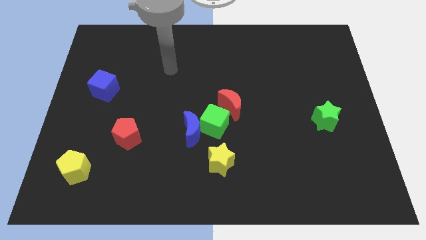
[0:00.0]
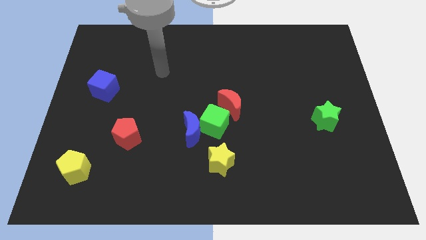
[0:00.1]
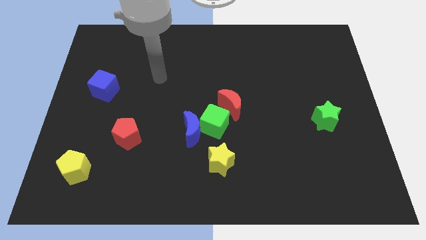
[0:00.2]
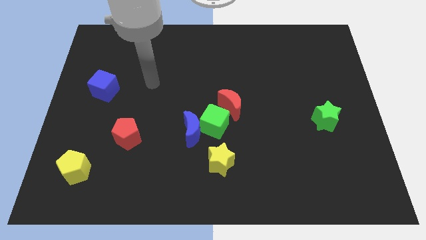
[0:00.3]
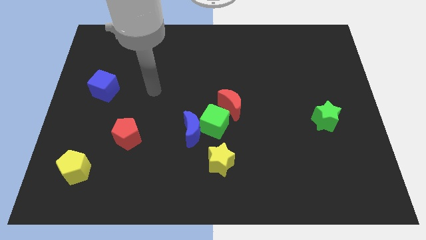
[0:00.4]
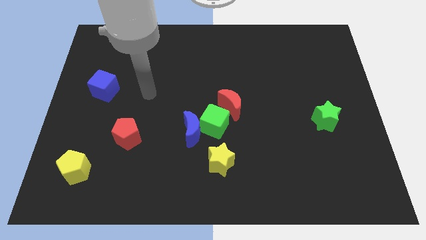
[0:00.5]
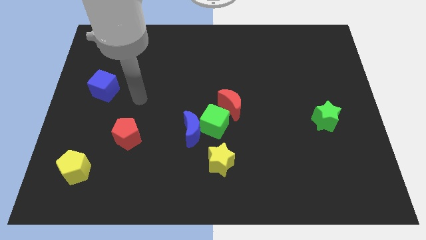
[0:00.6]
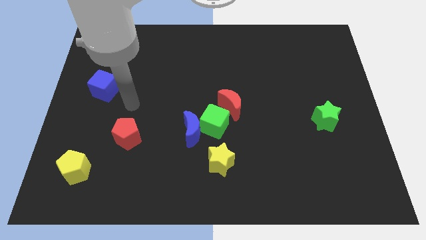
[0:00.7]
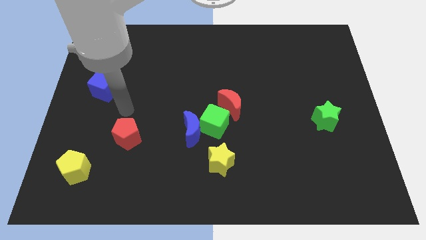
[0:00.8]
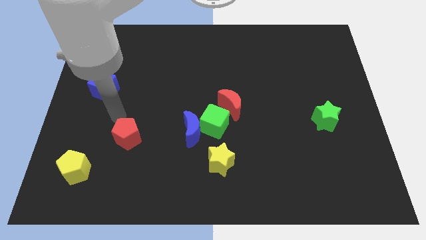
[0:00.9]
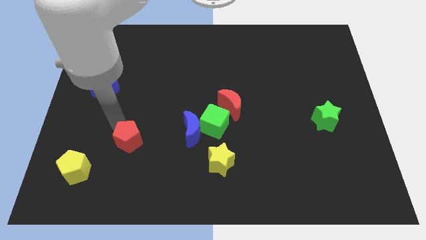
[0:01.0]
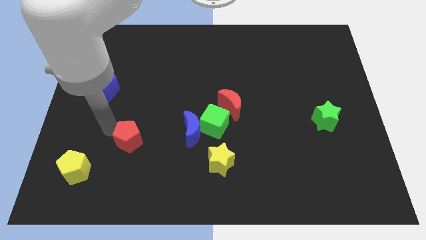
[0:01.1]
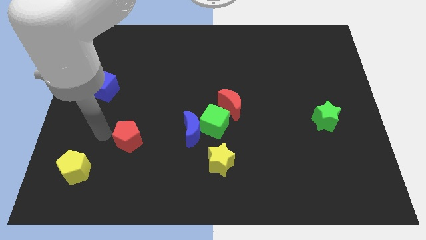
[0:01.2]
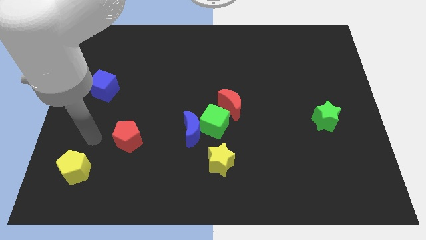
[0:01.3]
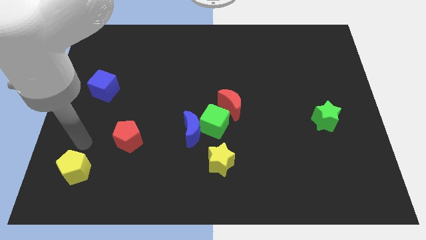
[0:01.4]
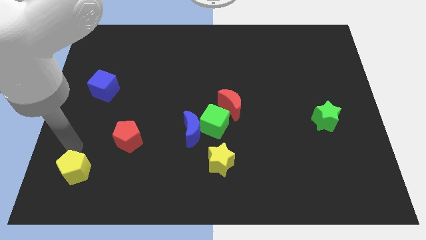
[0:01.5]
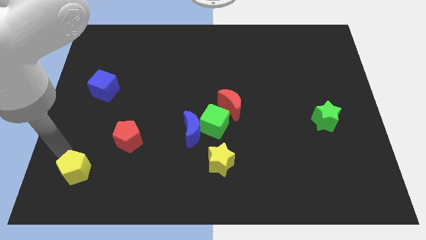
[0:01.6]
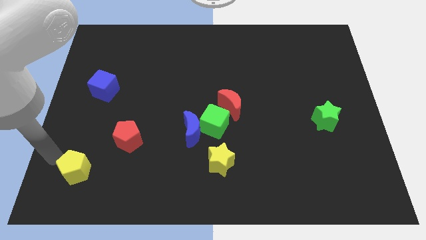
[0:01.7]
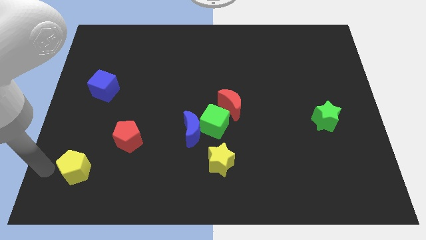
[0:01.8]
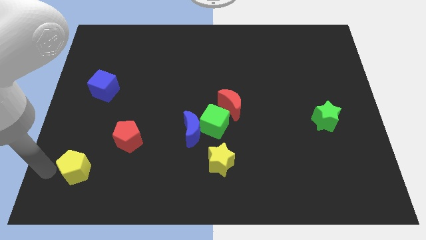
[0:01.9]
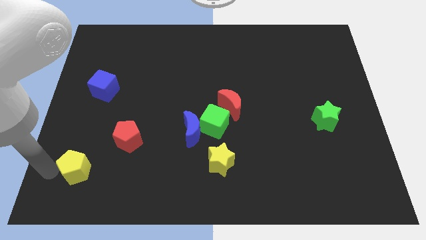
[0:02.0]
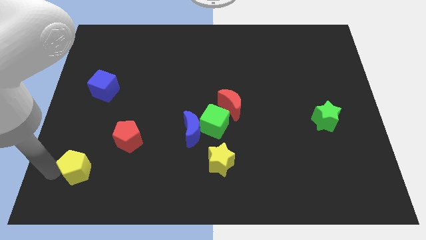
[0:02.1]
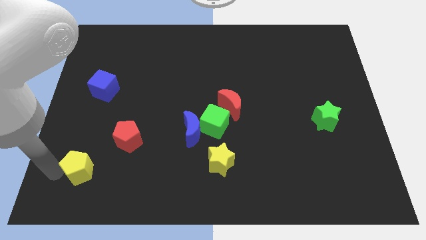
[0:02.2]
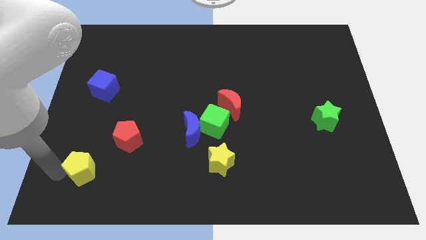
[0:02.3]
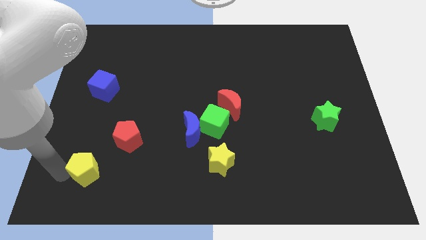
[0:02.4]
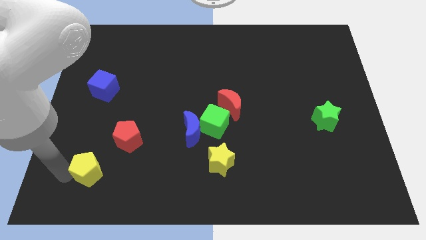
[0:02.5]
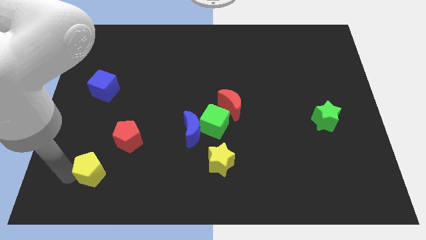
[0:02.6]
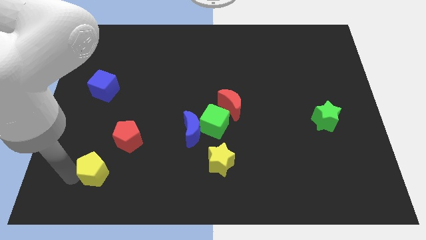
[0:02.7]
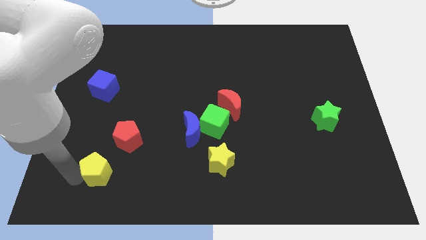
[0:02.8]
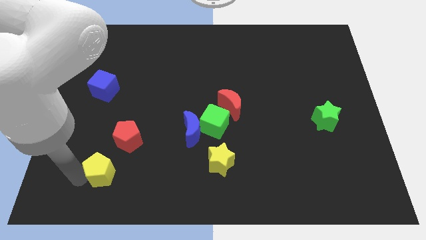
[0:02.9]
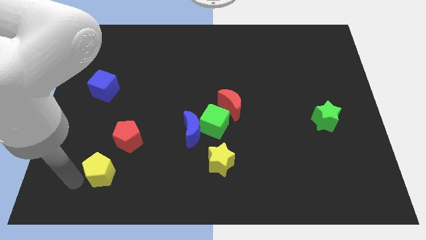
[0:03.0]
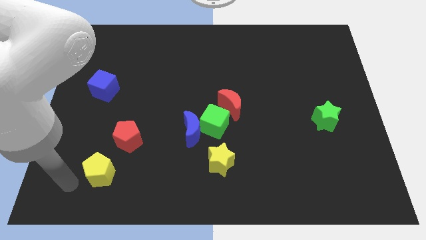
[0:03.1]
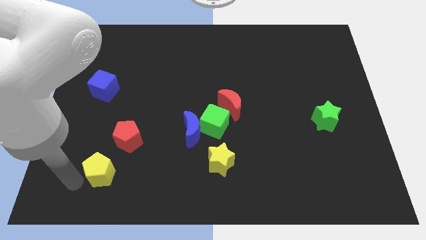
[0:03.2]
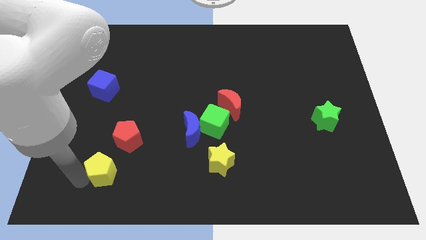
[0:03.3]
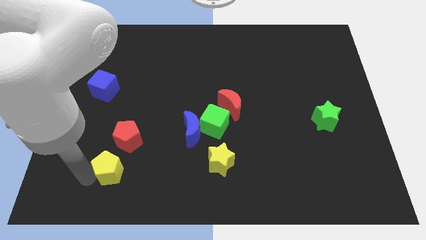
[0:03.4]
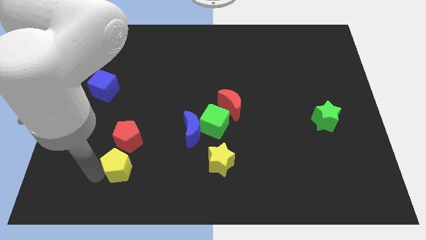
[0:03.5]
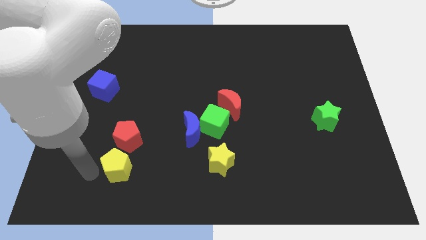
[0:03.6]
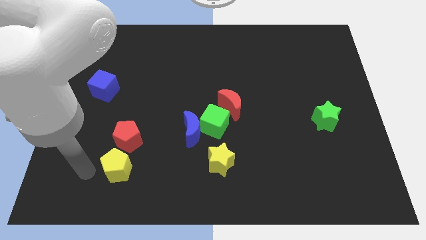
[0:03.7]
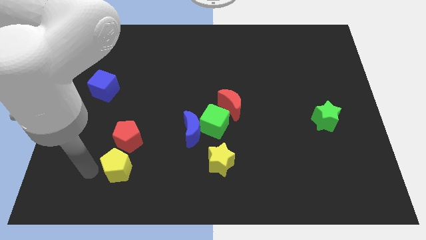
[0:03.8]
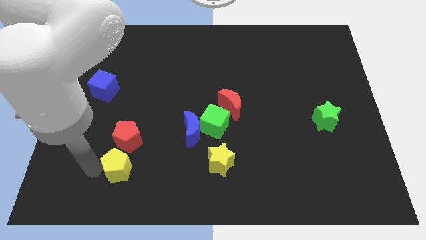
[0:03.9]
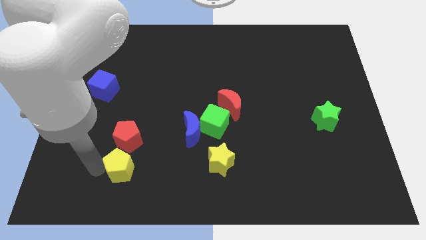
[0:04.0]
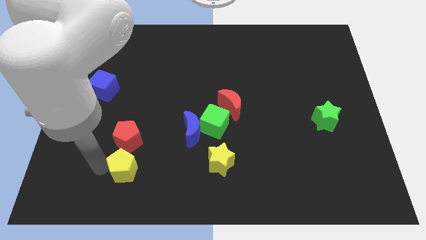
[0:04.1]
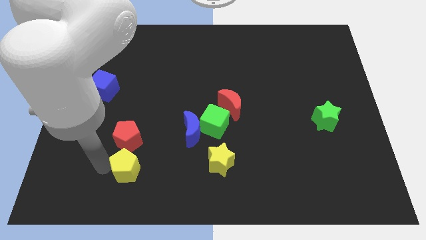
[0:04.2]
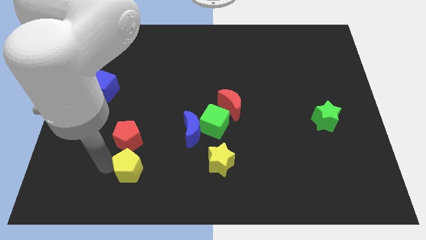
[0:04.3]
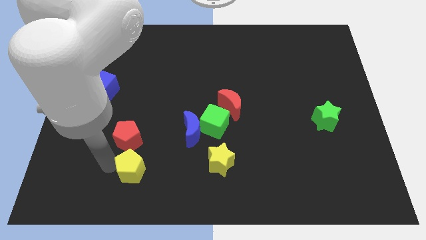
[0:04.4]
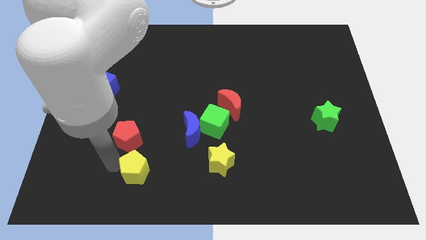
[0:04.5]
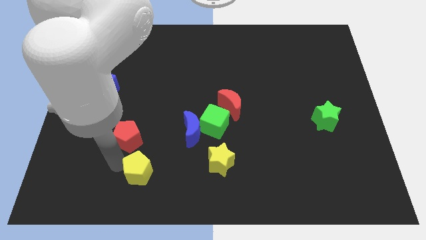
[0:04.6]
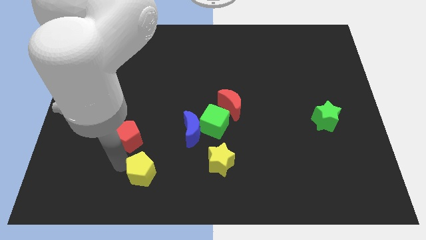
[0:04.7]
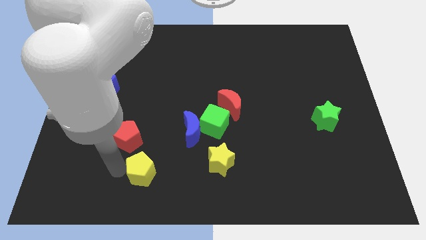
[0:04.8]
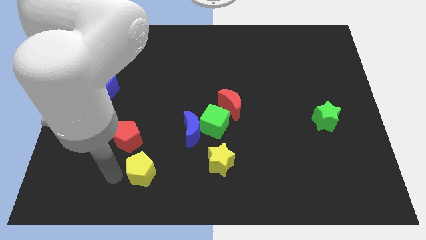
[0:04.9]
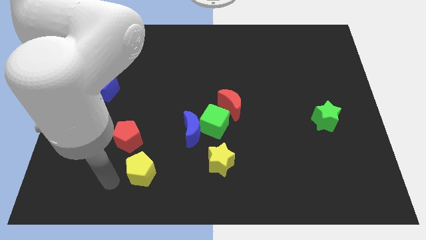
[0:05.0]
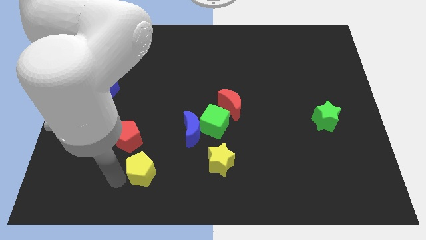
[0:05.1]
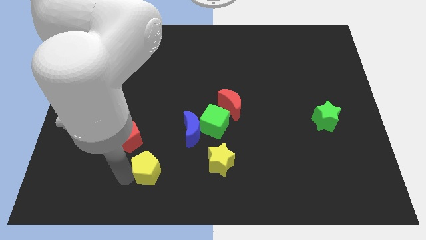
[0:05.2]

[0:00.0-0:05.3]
slide the yellow pentagon just left of the yellow star

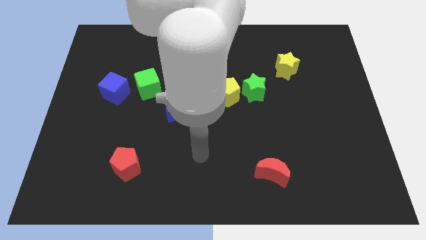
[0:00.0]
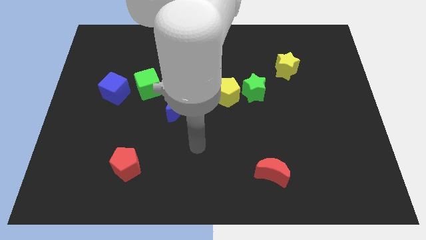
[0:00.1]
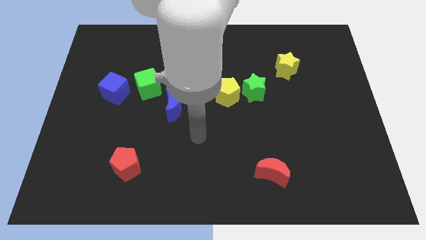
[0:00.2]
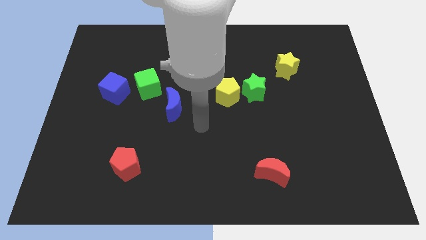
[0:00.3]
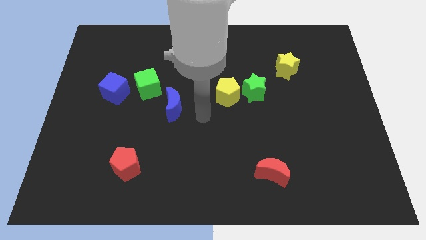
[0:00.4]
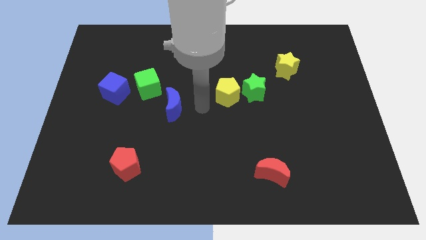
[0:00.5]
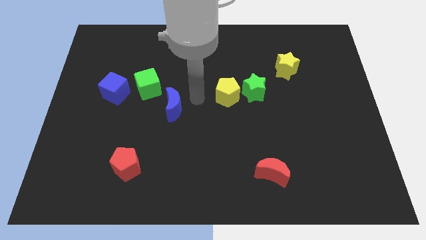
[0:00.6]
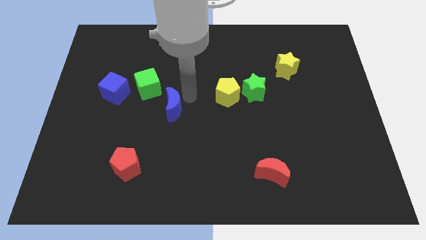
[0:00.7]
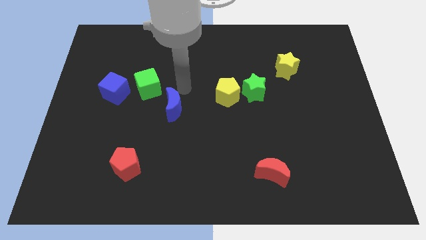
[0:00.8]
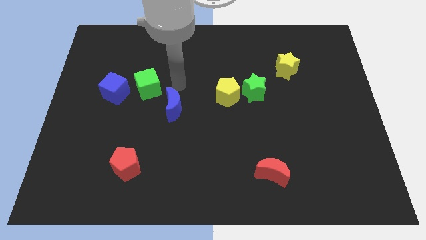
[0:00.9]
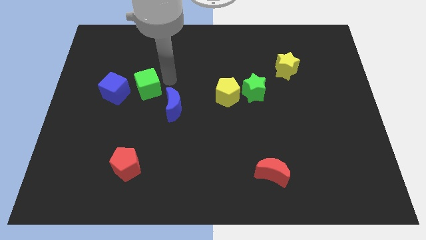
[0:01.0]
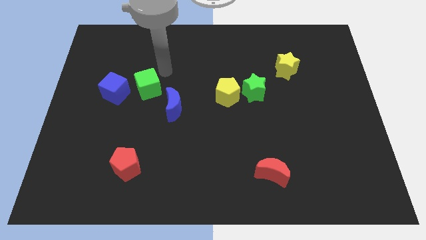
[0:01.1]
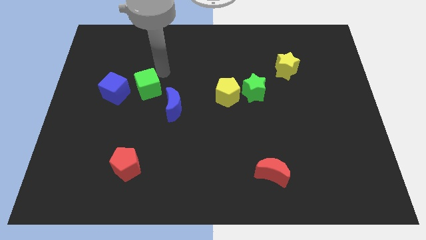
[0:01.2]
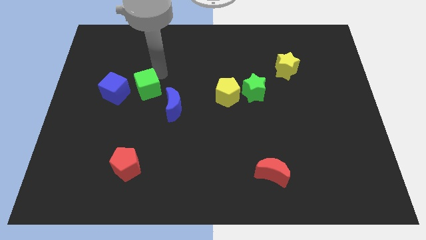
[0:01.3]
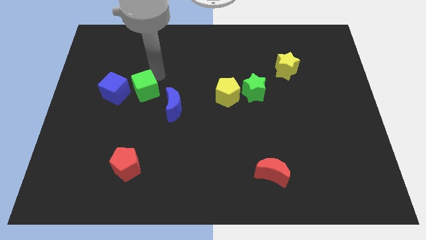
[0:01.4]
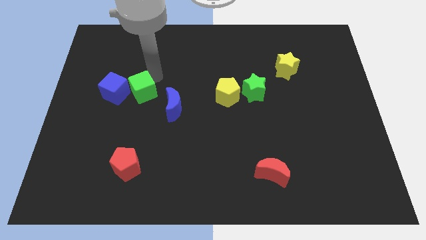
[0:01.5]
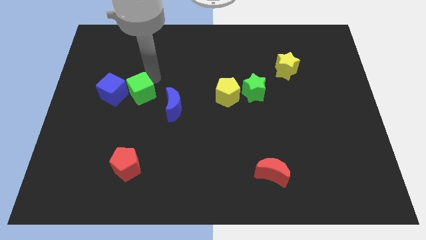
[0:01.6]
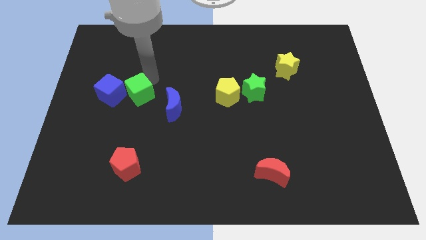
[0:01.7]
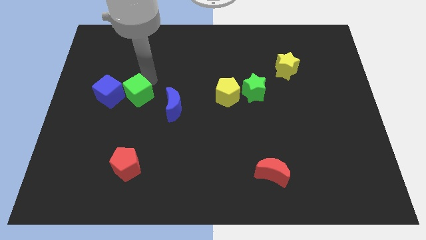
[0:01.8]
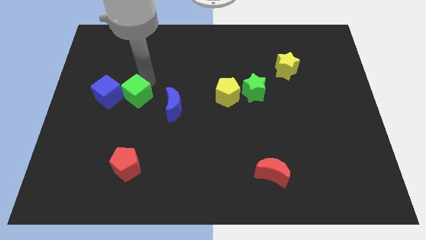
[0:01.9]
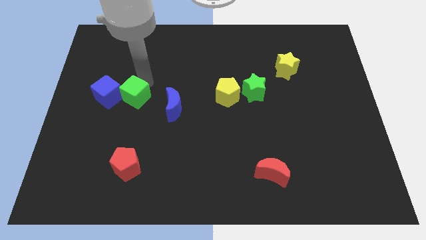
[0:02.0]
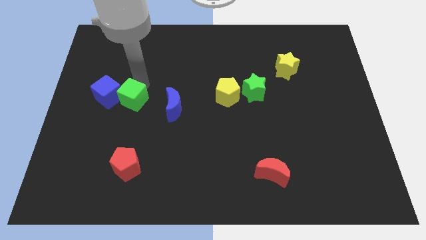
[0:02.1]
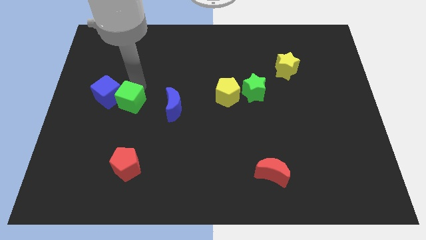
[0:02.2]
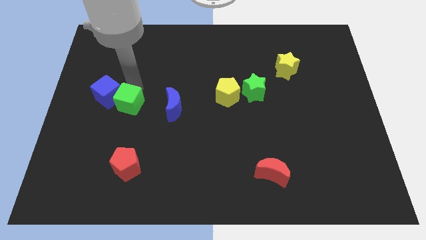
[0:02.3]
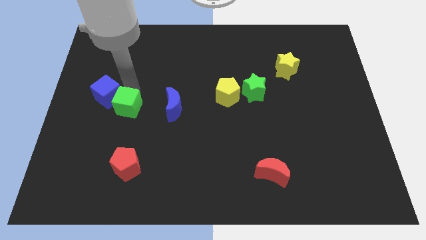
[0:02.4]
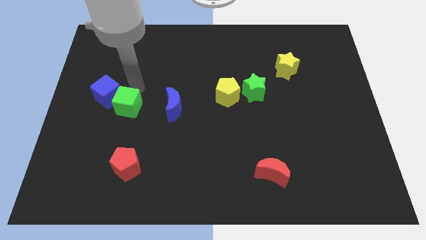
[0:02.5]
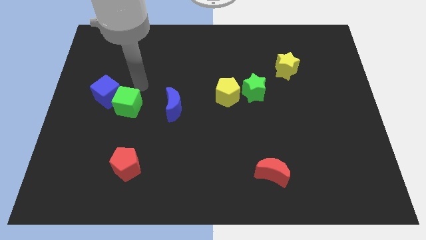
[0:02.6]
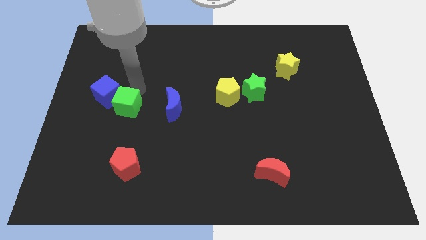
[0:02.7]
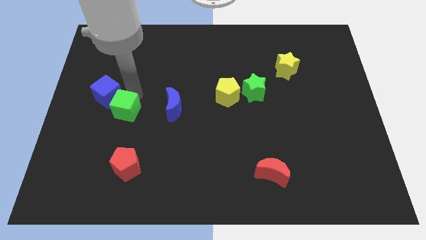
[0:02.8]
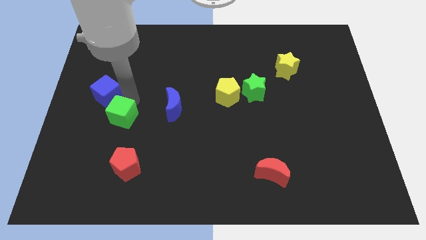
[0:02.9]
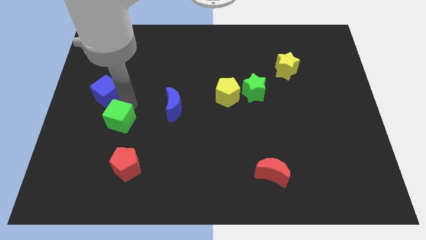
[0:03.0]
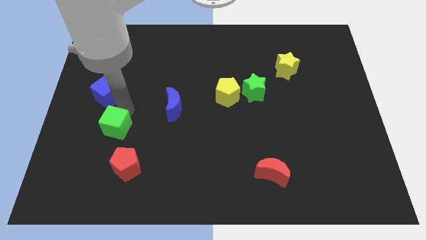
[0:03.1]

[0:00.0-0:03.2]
move the green cube diagonally up and to the left of the red pentagon

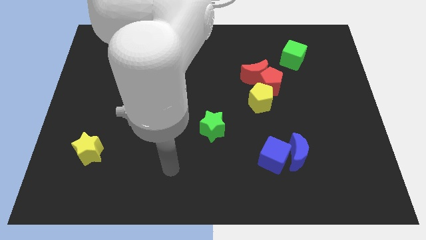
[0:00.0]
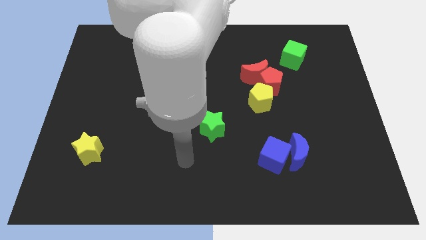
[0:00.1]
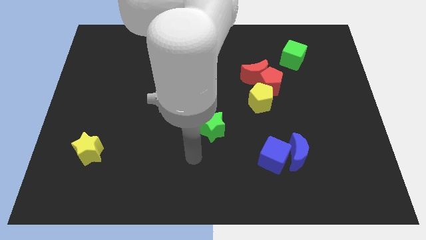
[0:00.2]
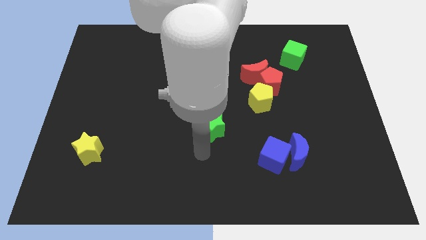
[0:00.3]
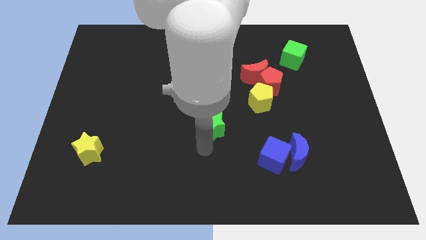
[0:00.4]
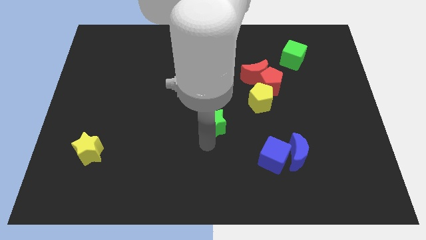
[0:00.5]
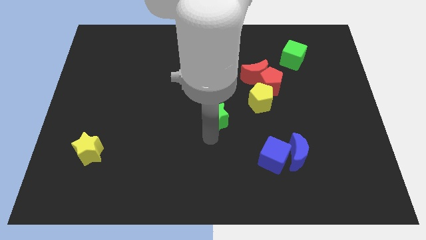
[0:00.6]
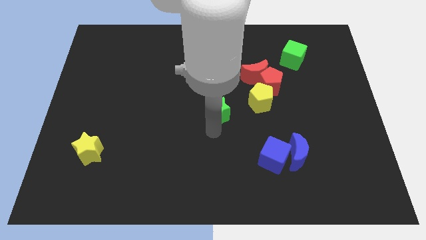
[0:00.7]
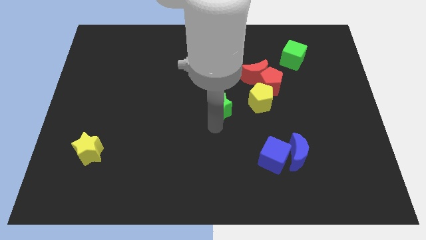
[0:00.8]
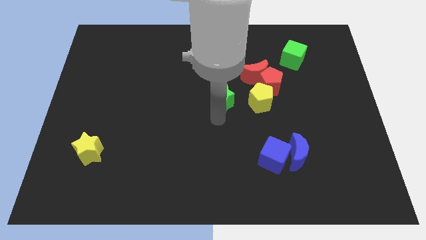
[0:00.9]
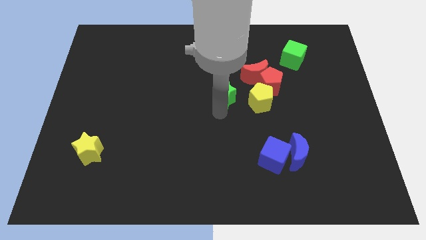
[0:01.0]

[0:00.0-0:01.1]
move the green star just left of the red pentagon
